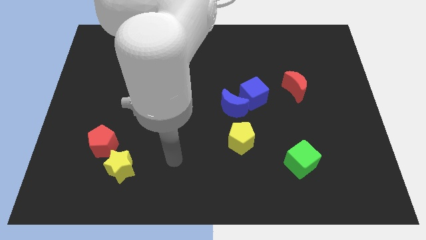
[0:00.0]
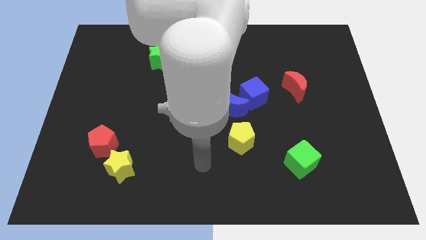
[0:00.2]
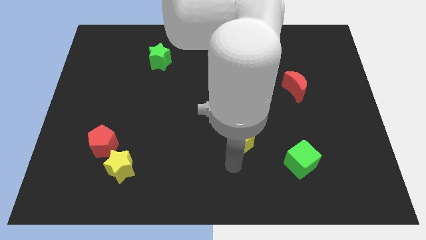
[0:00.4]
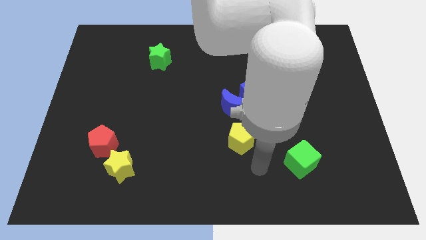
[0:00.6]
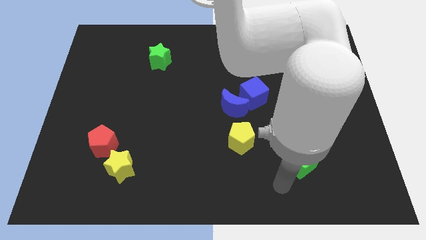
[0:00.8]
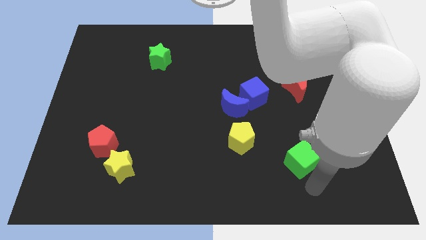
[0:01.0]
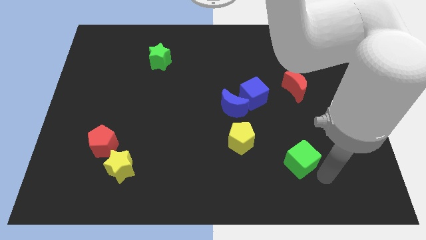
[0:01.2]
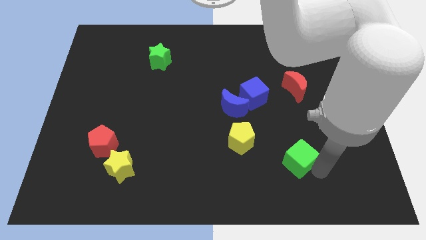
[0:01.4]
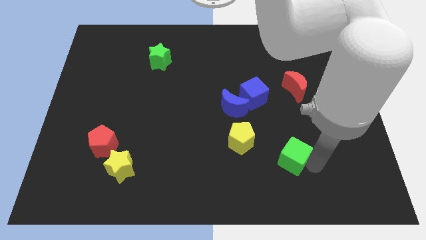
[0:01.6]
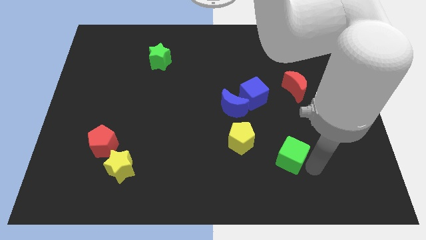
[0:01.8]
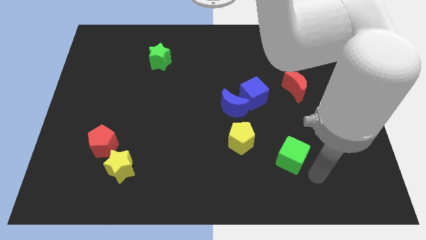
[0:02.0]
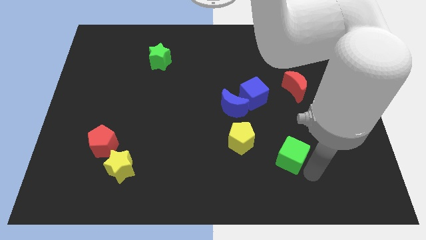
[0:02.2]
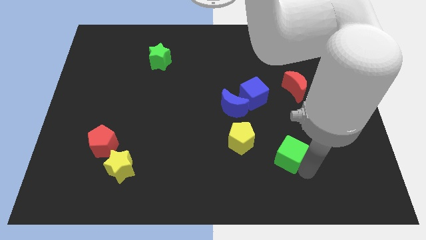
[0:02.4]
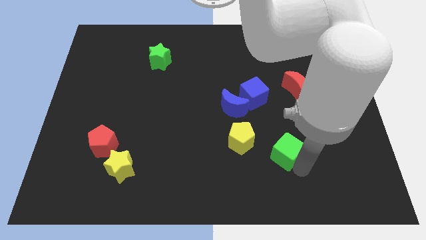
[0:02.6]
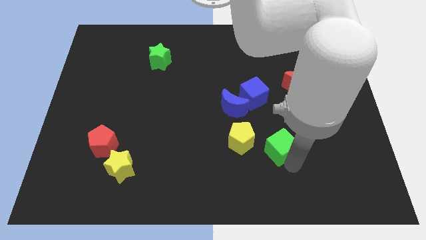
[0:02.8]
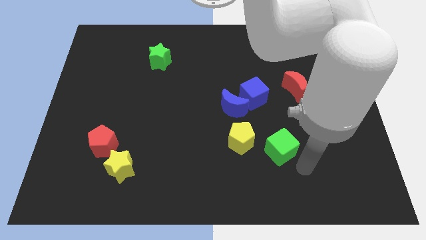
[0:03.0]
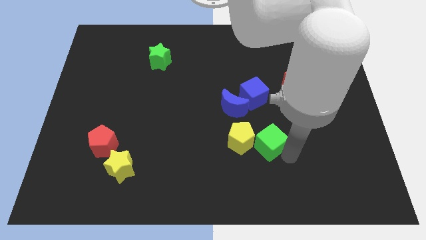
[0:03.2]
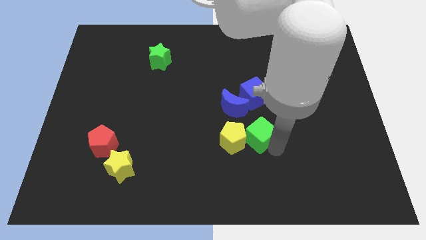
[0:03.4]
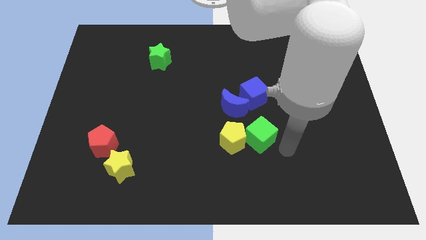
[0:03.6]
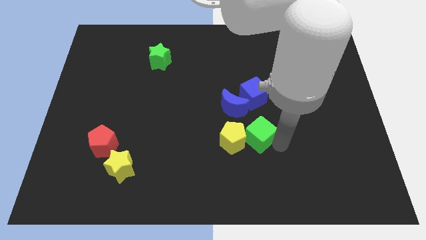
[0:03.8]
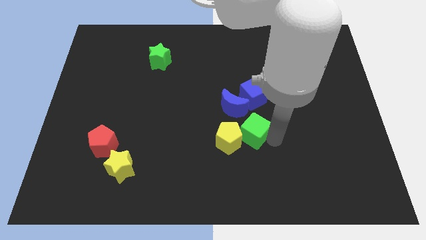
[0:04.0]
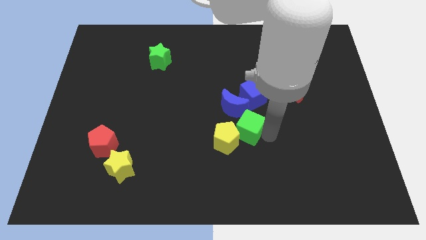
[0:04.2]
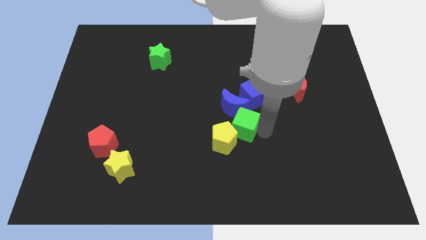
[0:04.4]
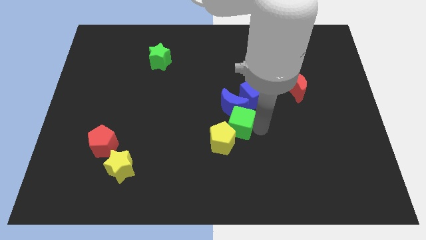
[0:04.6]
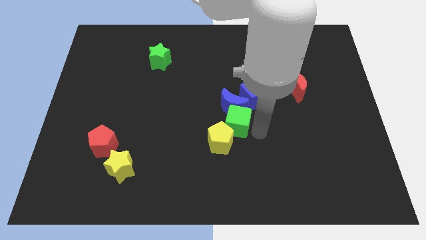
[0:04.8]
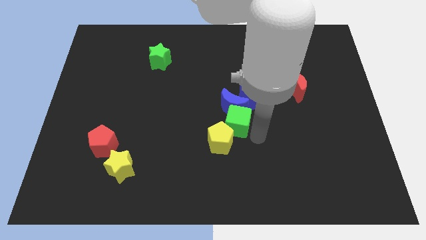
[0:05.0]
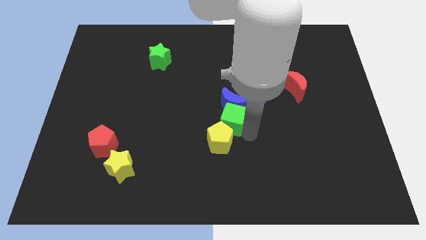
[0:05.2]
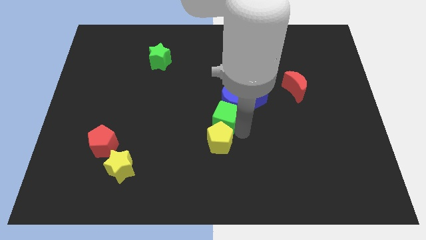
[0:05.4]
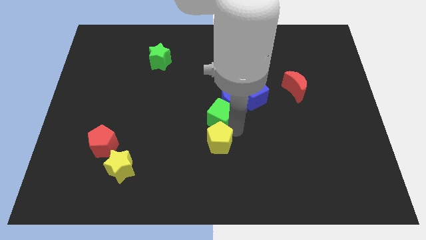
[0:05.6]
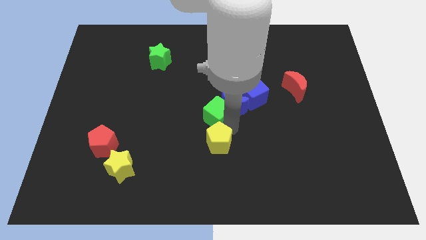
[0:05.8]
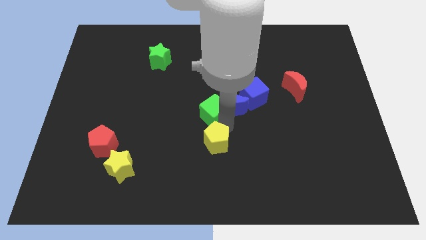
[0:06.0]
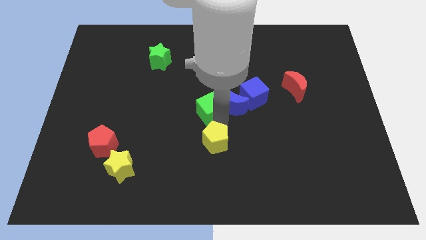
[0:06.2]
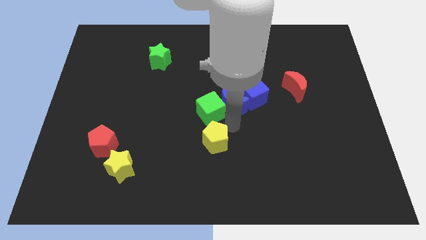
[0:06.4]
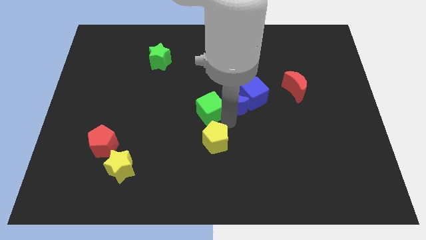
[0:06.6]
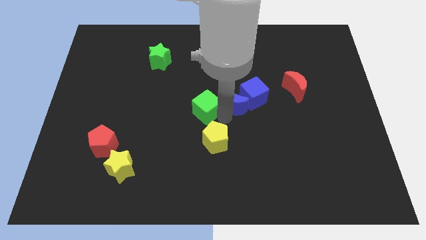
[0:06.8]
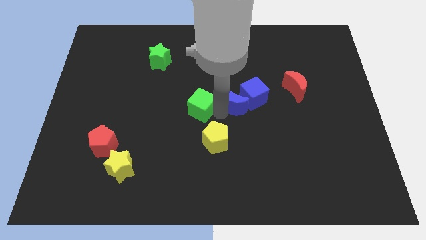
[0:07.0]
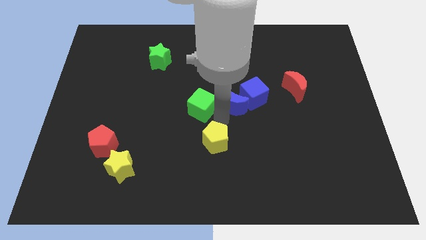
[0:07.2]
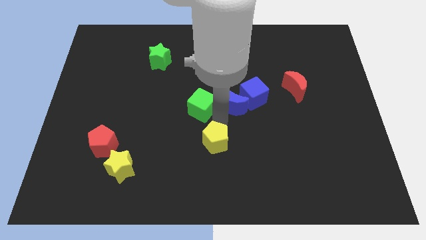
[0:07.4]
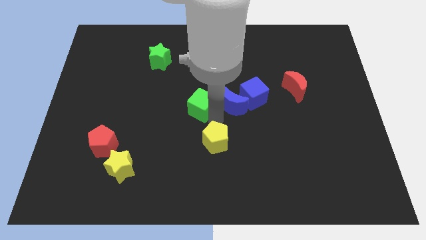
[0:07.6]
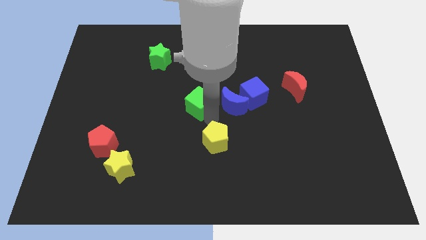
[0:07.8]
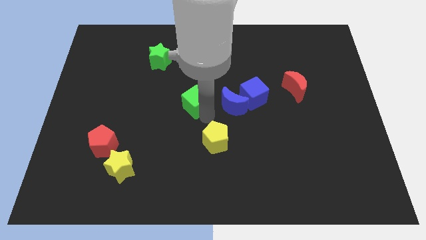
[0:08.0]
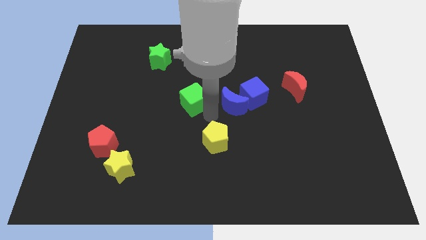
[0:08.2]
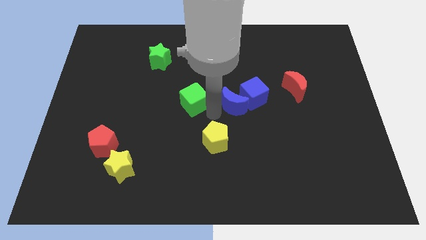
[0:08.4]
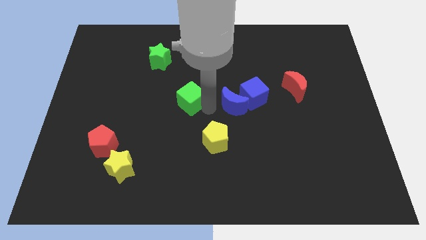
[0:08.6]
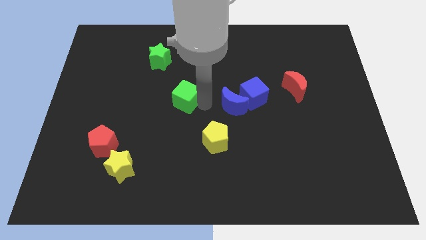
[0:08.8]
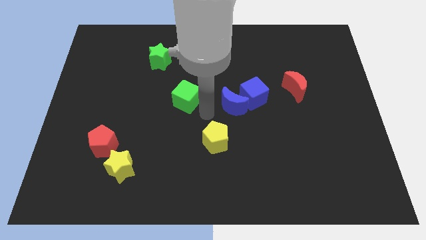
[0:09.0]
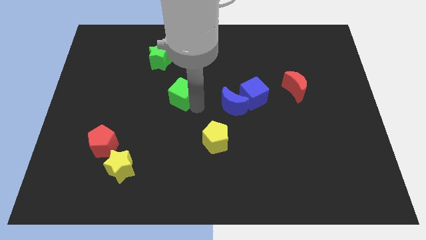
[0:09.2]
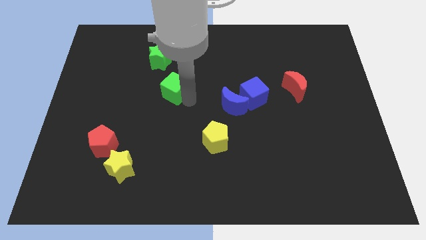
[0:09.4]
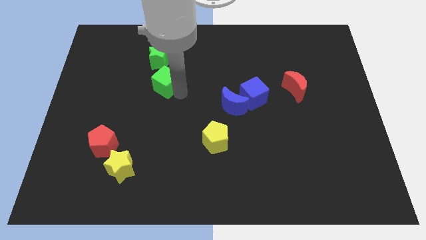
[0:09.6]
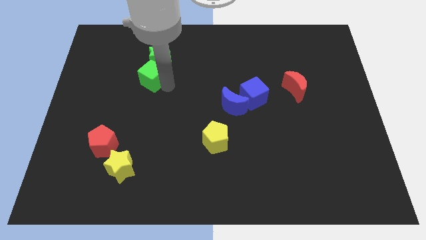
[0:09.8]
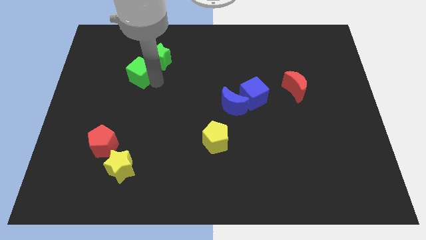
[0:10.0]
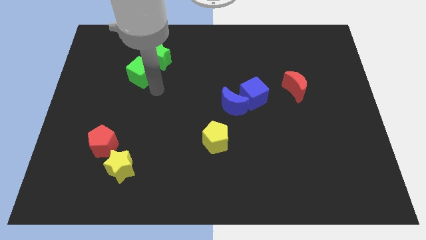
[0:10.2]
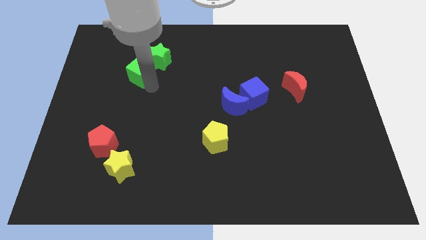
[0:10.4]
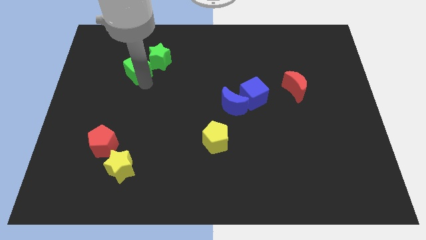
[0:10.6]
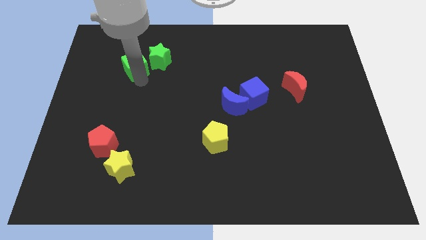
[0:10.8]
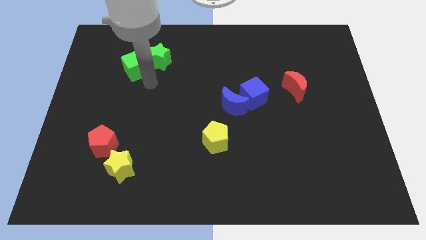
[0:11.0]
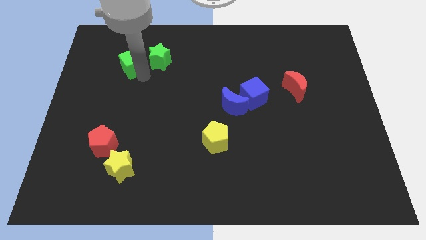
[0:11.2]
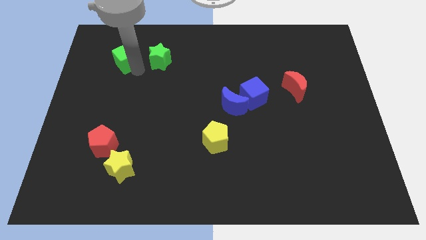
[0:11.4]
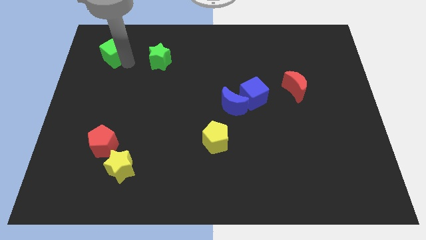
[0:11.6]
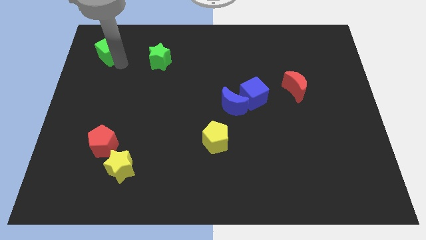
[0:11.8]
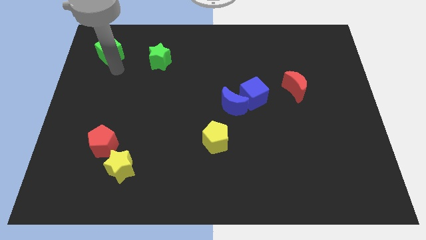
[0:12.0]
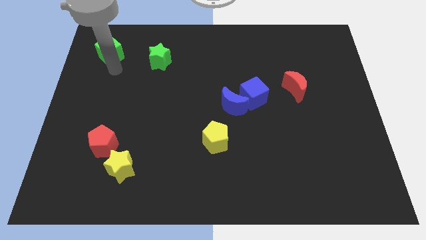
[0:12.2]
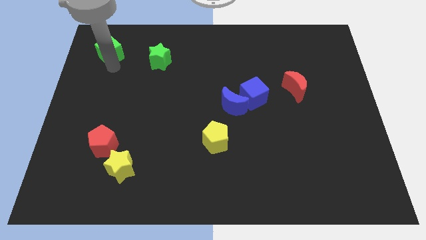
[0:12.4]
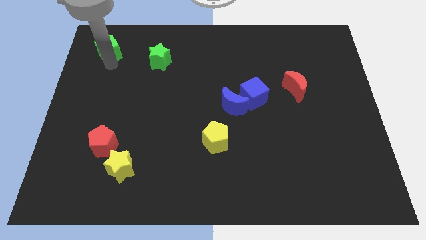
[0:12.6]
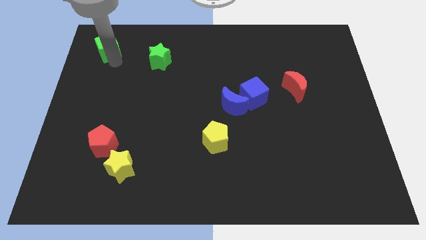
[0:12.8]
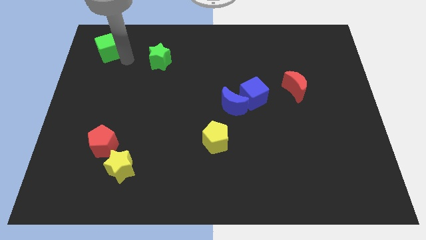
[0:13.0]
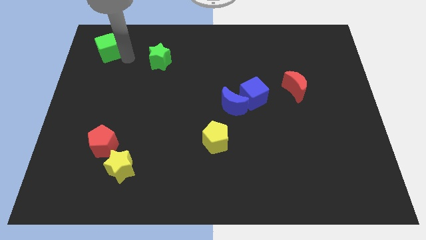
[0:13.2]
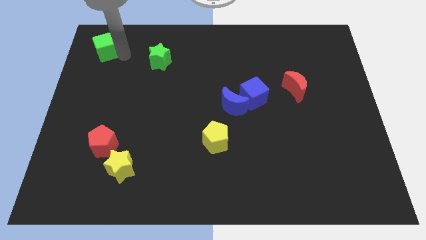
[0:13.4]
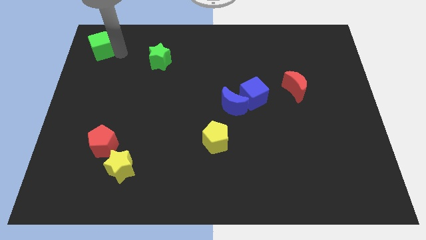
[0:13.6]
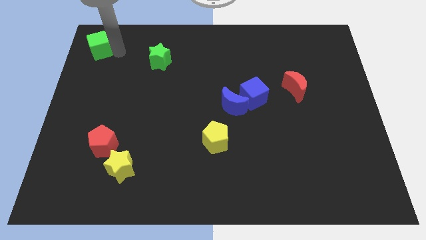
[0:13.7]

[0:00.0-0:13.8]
move the green cube to the upper left corner

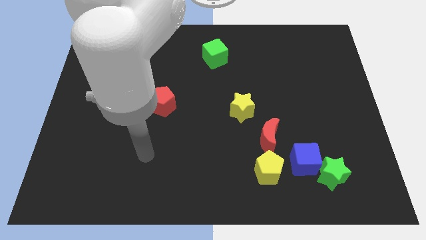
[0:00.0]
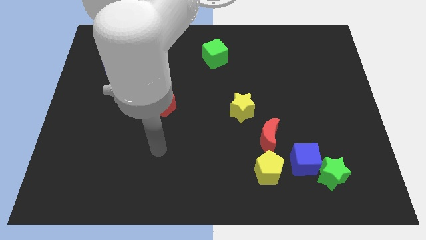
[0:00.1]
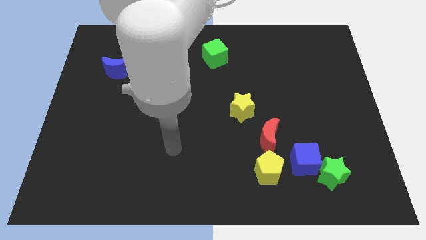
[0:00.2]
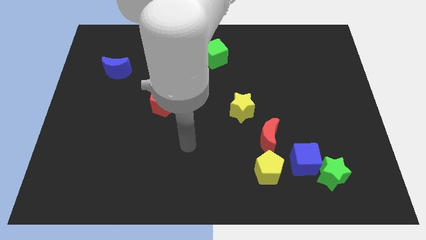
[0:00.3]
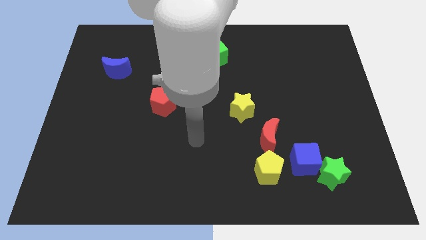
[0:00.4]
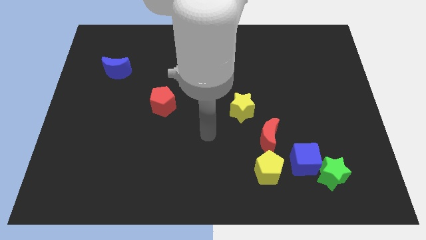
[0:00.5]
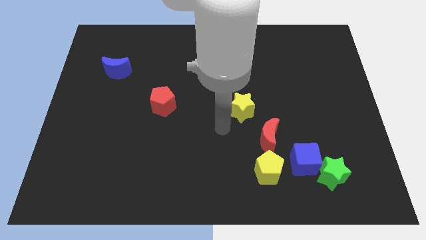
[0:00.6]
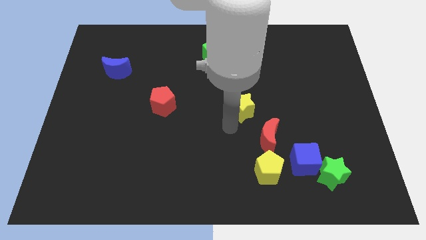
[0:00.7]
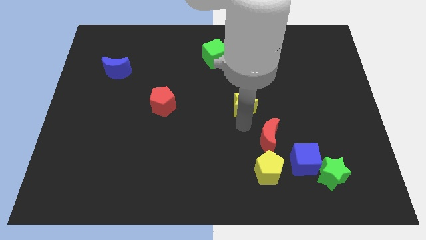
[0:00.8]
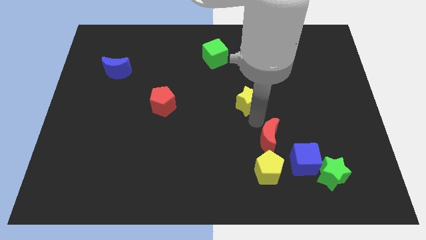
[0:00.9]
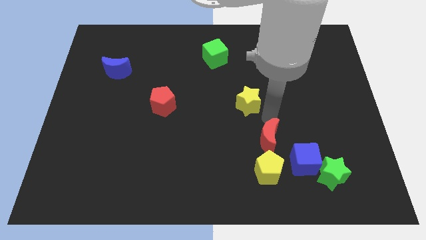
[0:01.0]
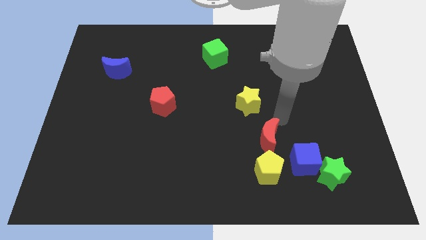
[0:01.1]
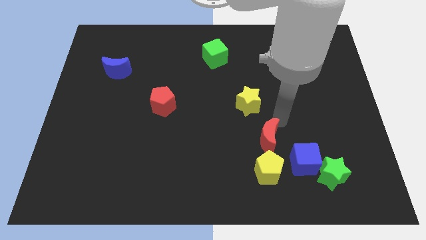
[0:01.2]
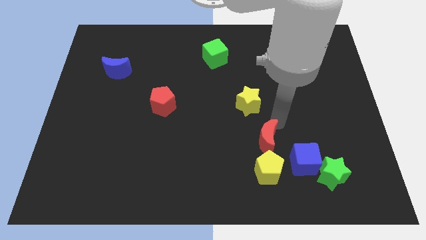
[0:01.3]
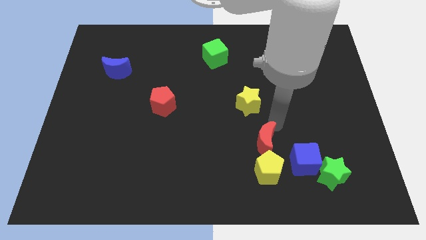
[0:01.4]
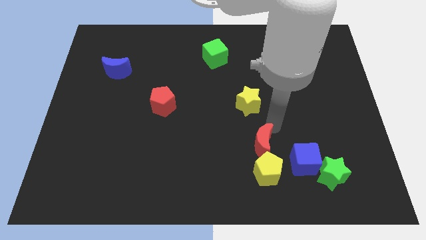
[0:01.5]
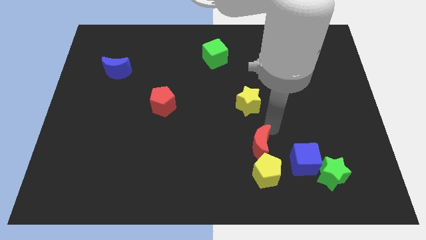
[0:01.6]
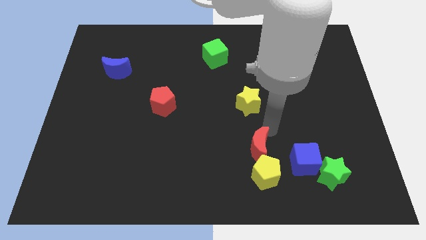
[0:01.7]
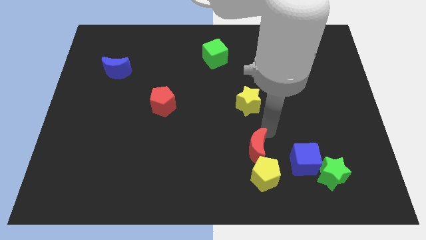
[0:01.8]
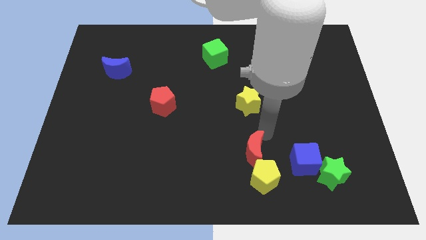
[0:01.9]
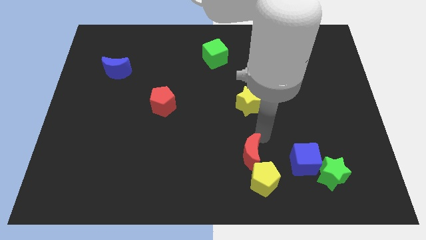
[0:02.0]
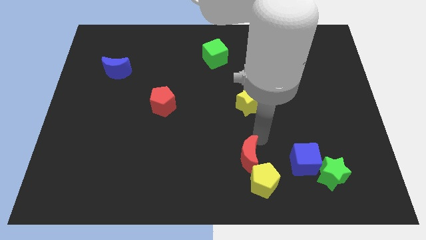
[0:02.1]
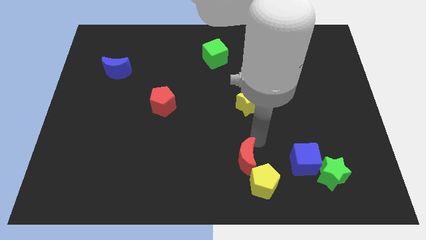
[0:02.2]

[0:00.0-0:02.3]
slide the red moon to the bottom side
